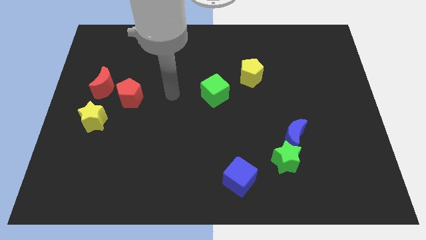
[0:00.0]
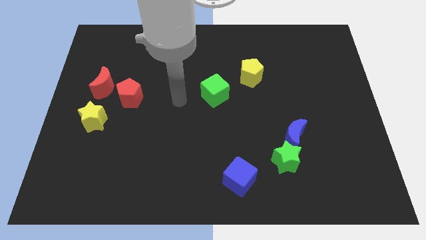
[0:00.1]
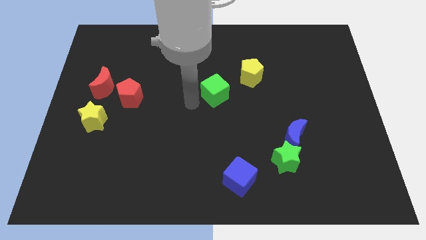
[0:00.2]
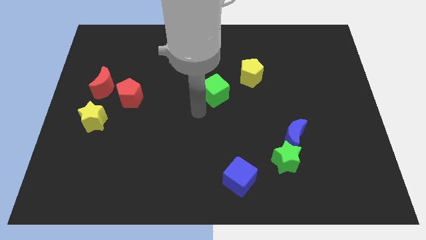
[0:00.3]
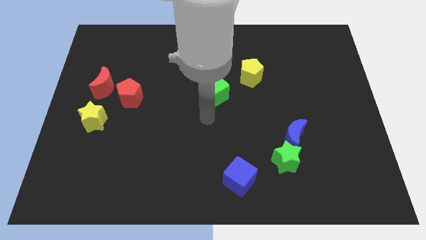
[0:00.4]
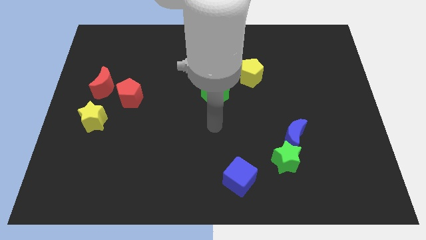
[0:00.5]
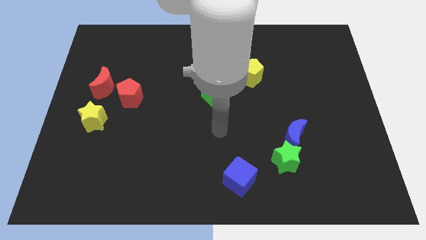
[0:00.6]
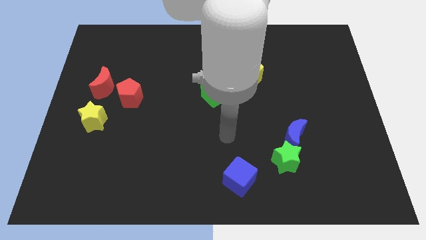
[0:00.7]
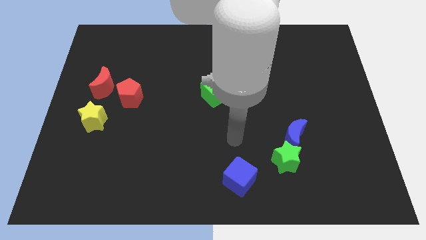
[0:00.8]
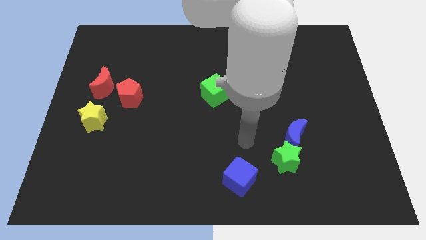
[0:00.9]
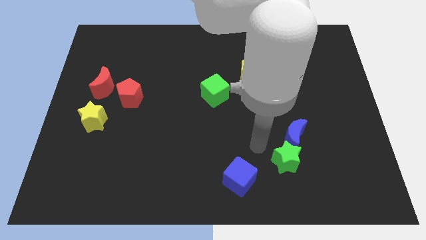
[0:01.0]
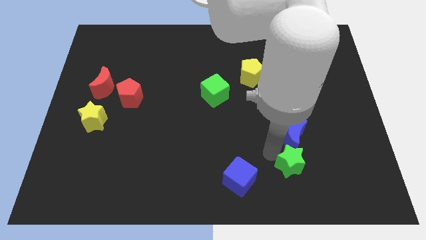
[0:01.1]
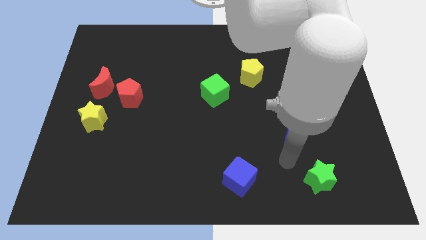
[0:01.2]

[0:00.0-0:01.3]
move the blue moon away from the green star

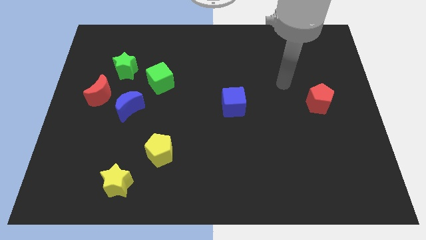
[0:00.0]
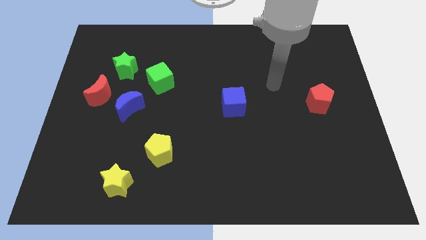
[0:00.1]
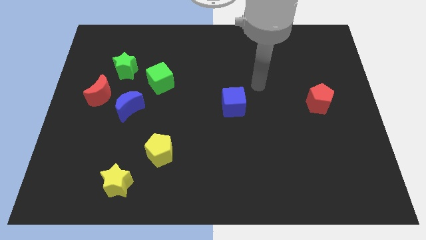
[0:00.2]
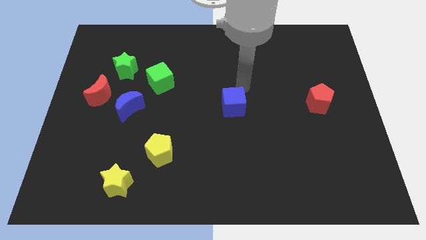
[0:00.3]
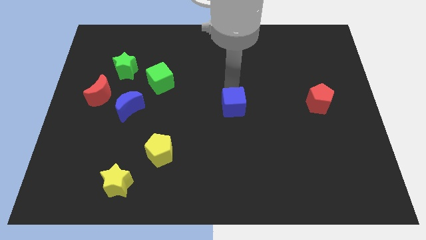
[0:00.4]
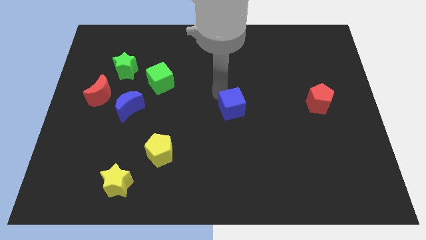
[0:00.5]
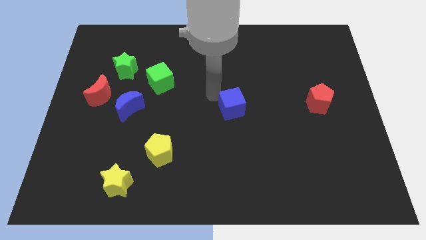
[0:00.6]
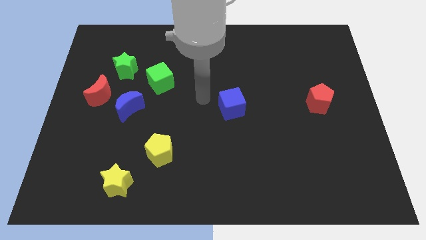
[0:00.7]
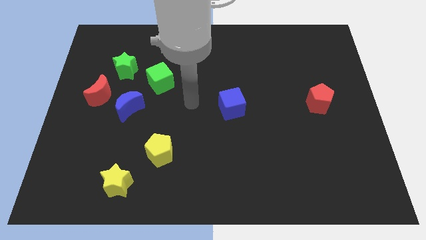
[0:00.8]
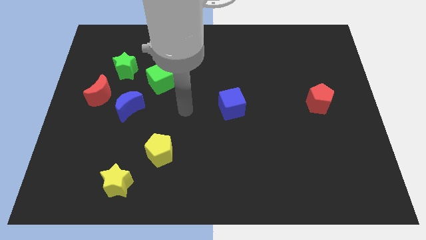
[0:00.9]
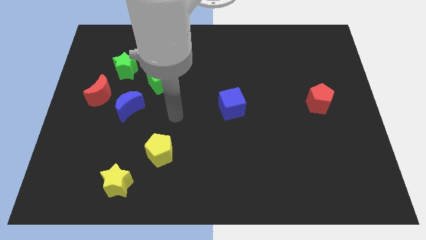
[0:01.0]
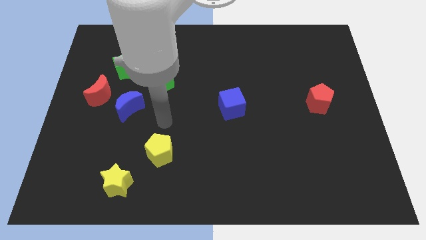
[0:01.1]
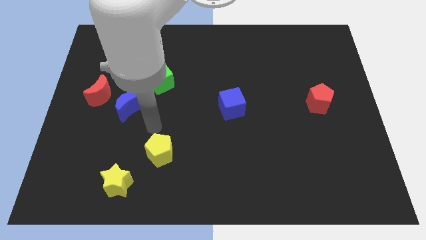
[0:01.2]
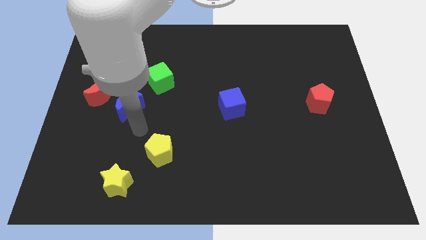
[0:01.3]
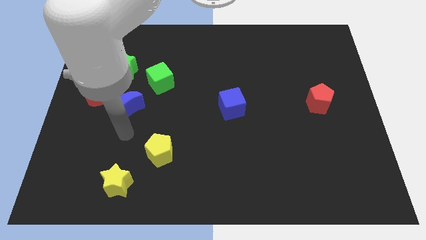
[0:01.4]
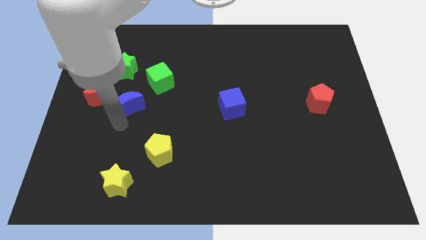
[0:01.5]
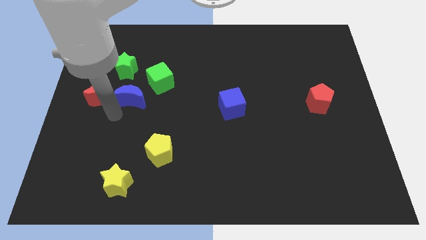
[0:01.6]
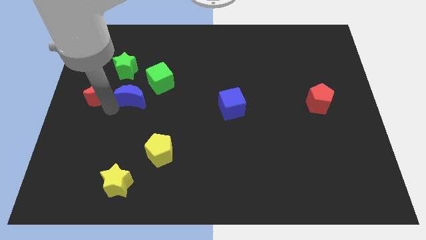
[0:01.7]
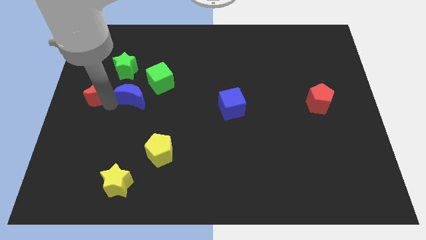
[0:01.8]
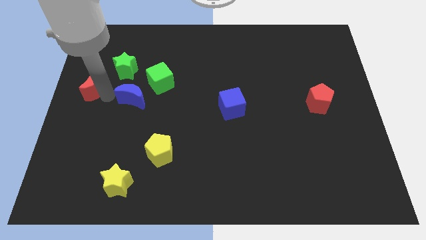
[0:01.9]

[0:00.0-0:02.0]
separate the blue moon from the red moon

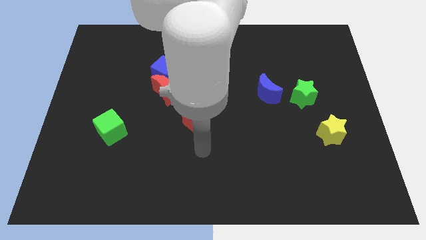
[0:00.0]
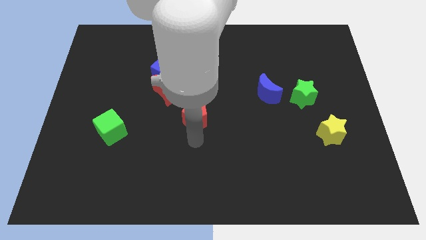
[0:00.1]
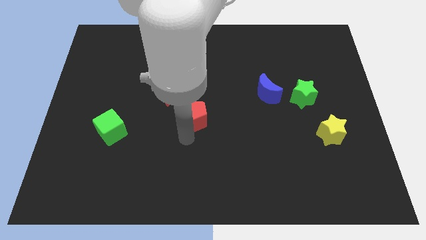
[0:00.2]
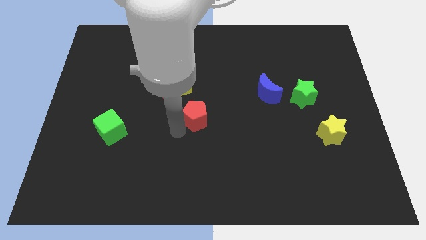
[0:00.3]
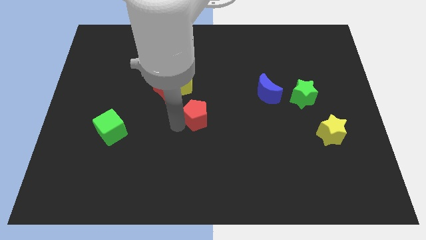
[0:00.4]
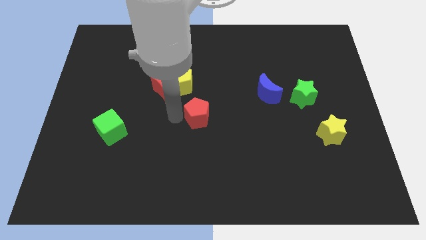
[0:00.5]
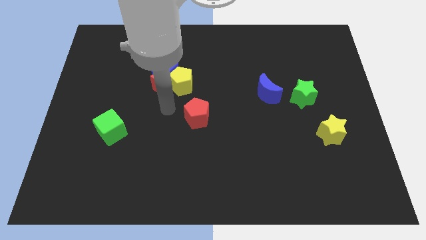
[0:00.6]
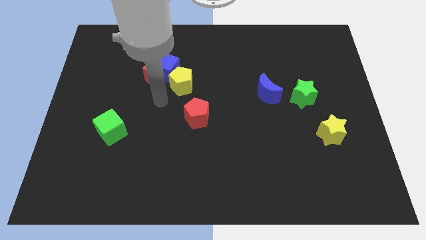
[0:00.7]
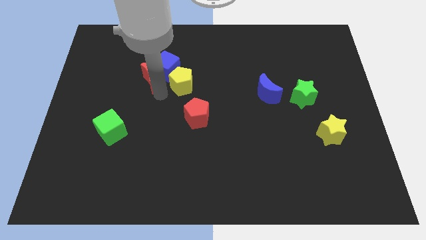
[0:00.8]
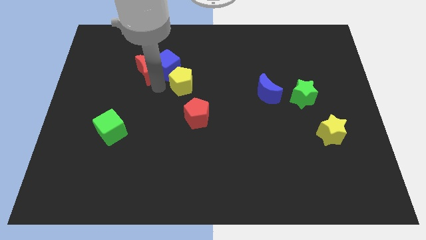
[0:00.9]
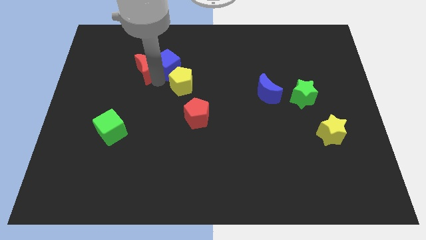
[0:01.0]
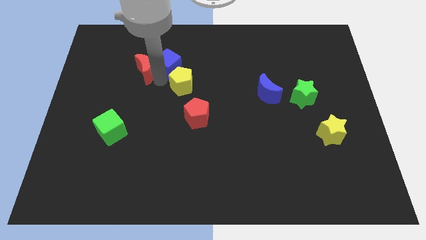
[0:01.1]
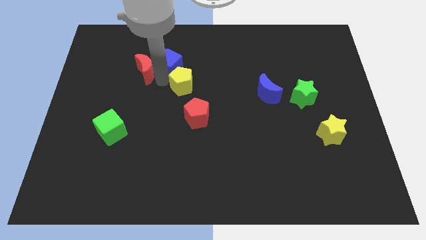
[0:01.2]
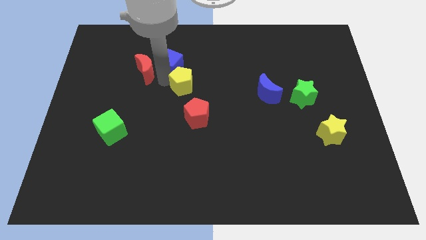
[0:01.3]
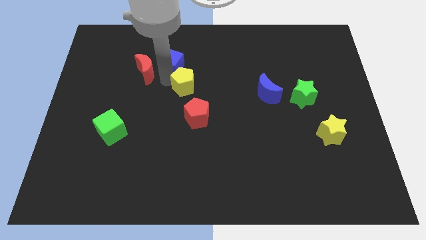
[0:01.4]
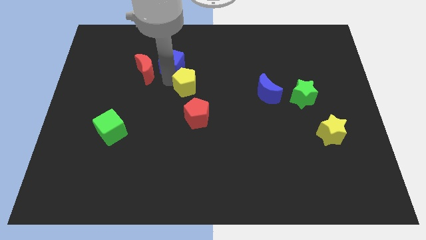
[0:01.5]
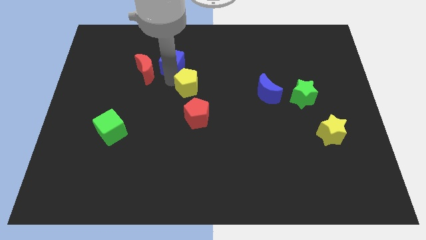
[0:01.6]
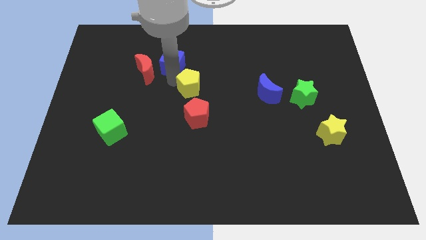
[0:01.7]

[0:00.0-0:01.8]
move the yellow pentagon away from the red moon and blue cube

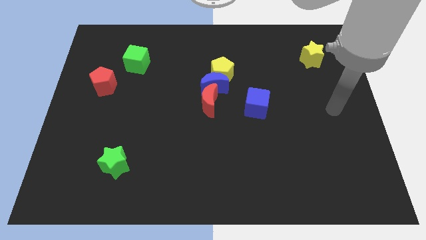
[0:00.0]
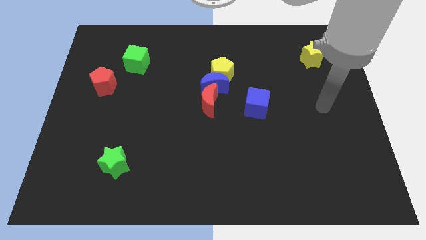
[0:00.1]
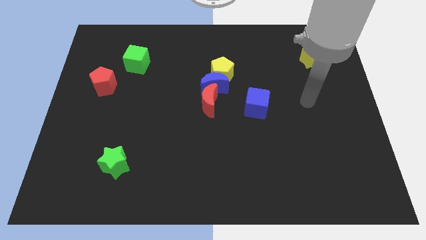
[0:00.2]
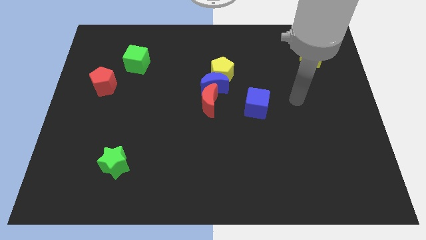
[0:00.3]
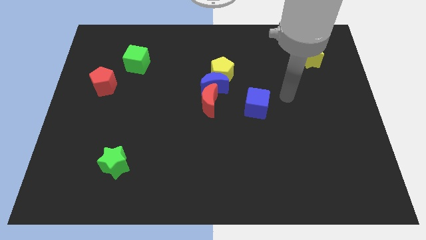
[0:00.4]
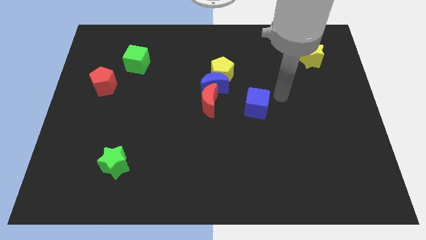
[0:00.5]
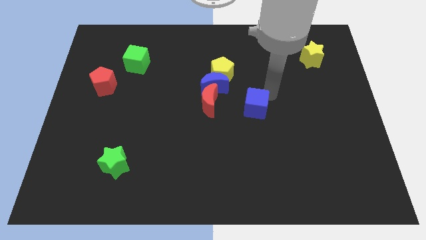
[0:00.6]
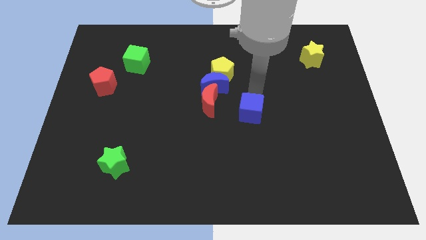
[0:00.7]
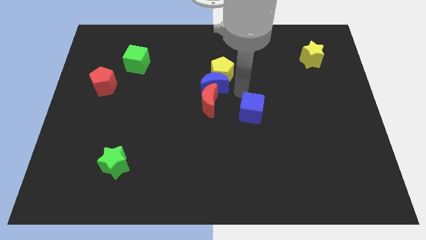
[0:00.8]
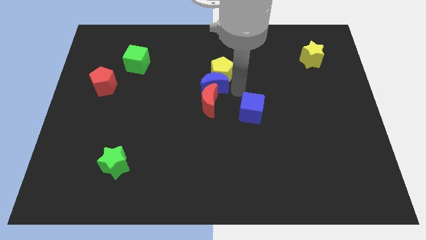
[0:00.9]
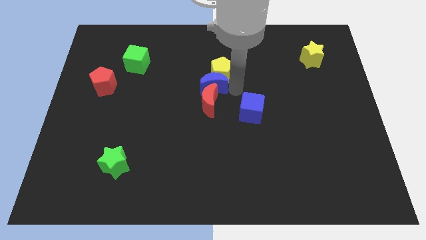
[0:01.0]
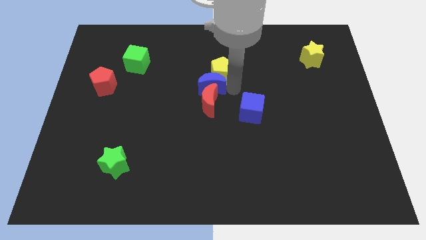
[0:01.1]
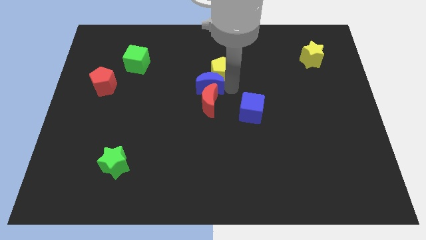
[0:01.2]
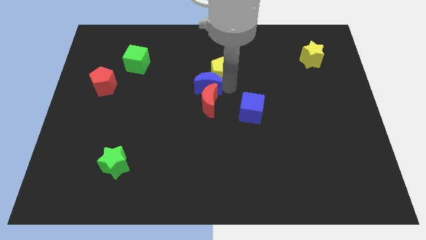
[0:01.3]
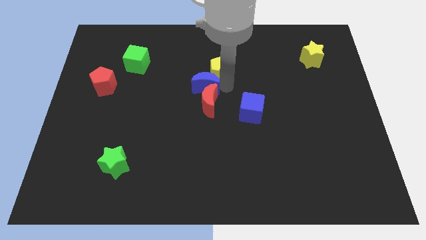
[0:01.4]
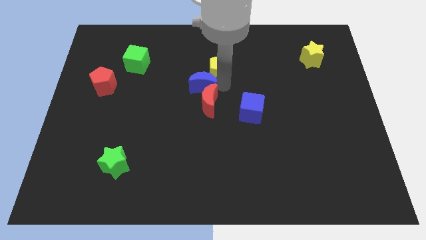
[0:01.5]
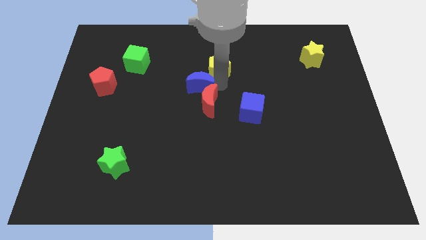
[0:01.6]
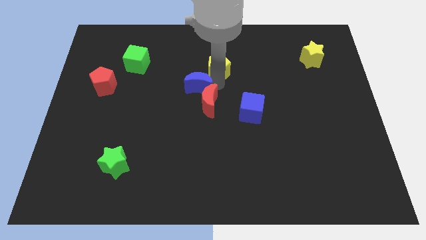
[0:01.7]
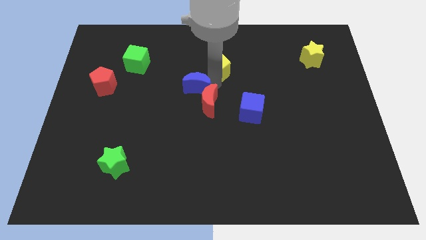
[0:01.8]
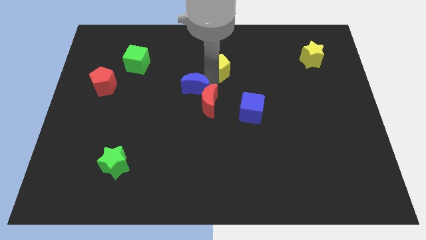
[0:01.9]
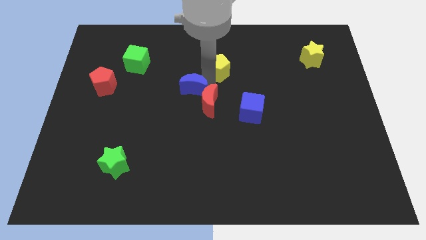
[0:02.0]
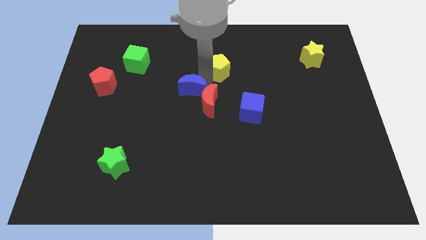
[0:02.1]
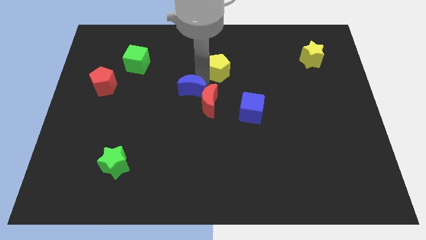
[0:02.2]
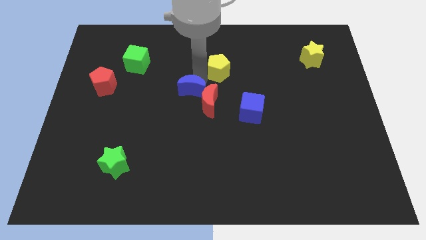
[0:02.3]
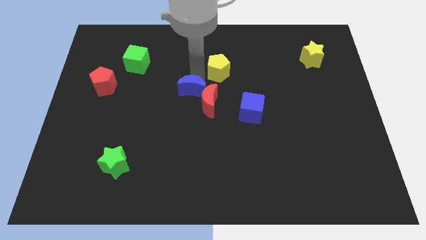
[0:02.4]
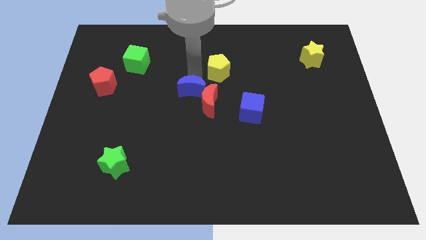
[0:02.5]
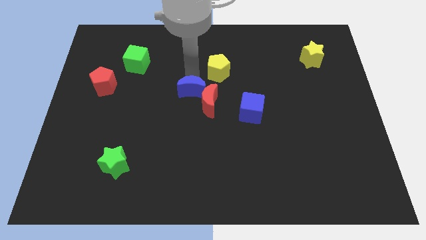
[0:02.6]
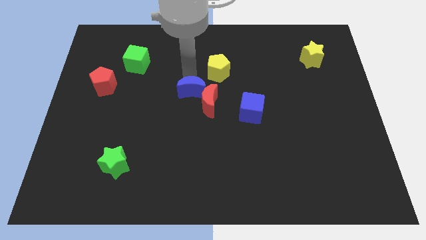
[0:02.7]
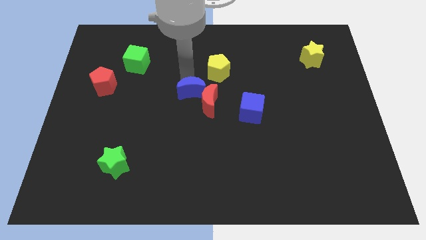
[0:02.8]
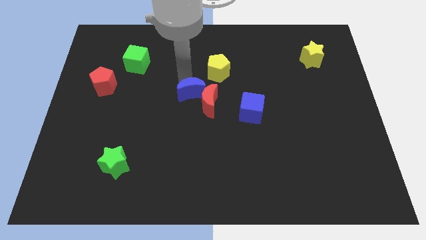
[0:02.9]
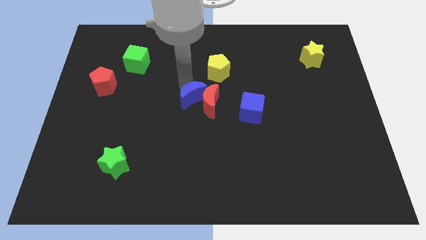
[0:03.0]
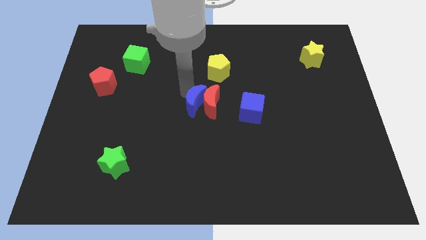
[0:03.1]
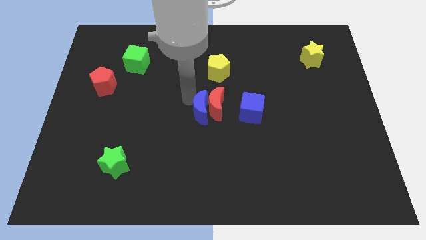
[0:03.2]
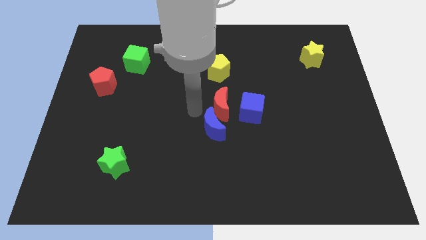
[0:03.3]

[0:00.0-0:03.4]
pull the blue moon apart from the yellow pentagon and red moon

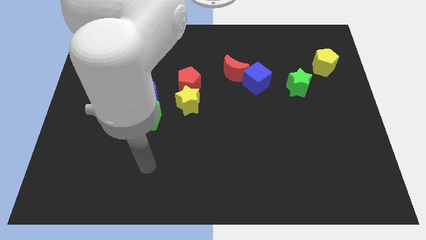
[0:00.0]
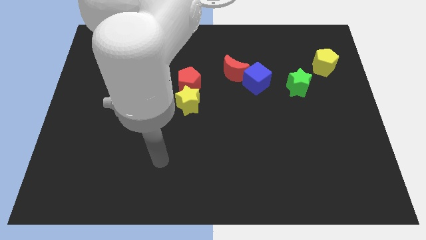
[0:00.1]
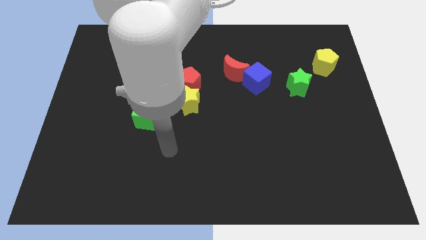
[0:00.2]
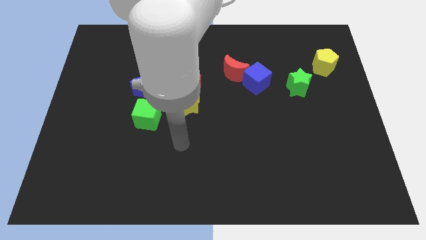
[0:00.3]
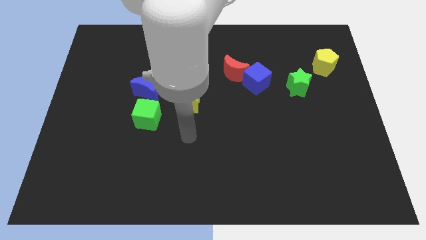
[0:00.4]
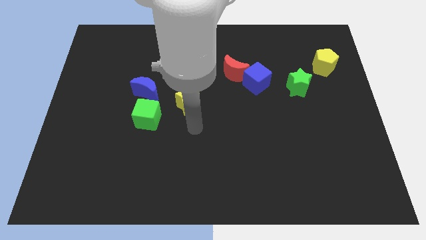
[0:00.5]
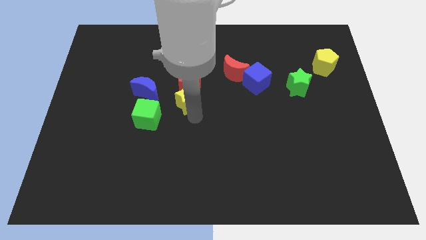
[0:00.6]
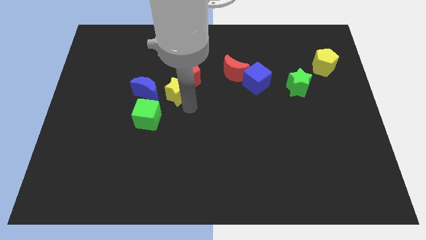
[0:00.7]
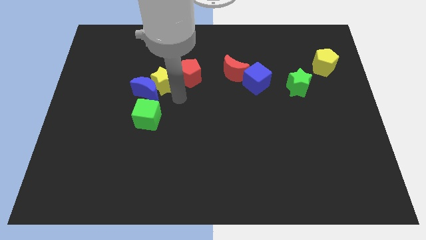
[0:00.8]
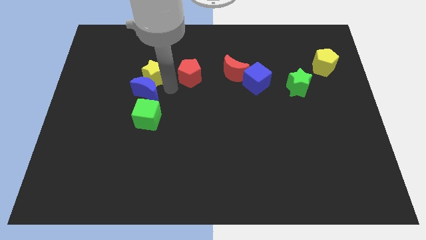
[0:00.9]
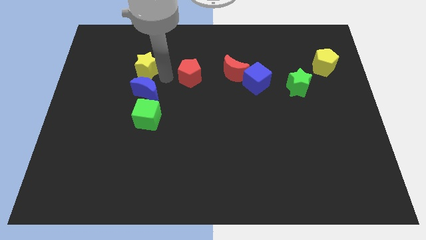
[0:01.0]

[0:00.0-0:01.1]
pull the red pentagon apart from the yellow star
